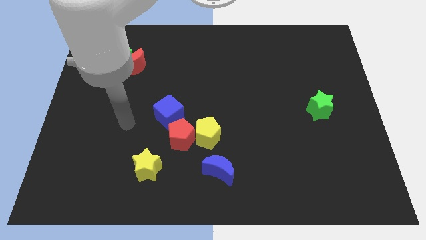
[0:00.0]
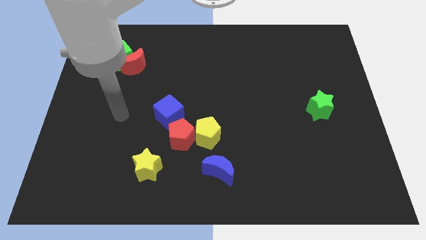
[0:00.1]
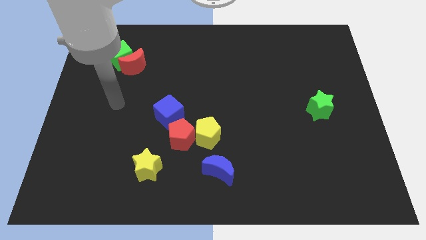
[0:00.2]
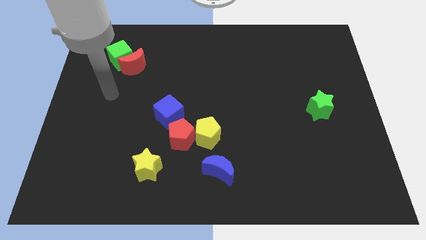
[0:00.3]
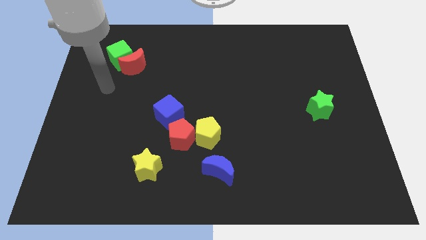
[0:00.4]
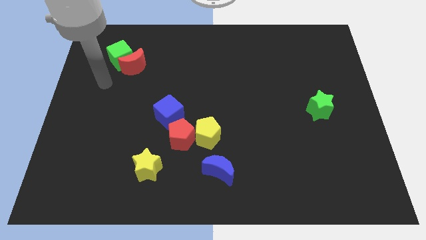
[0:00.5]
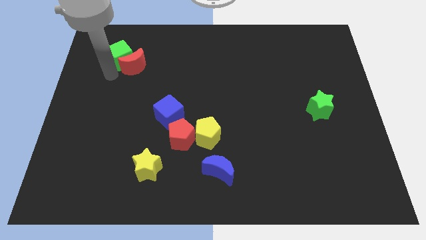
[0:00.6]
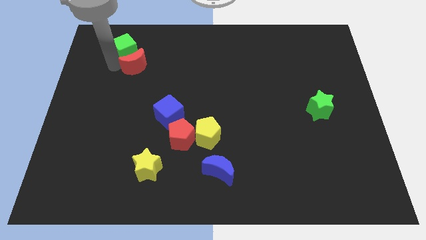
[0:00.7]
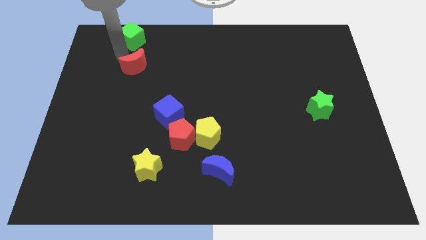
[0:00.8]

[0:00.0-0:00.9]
move the red moon away from the green cube

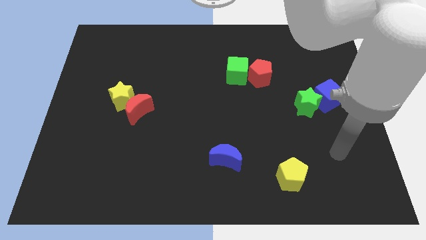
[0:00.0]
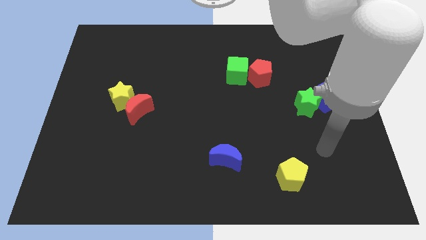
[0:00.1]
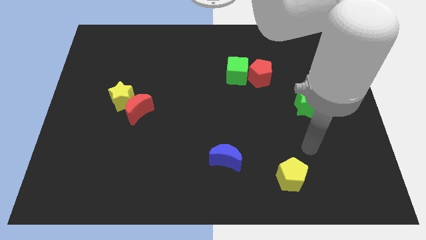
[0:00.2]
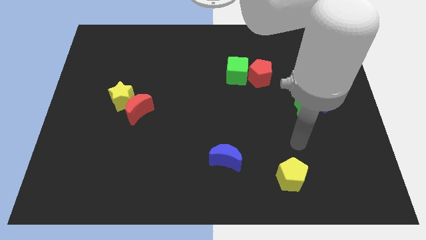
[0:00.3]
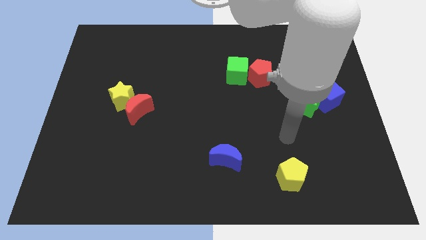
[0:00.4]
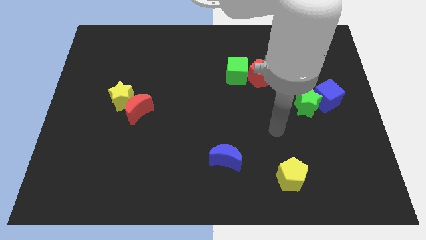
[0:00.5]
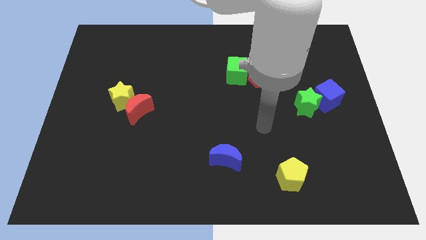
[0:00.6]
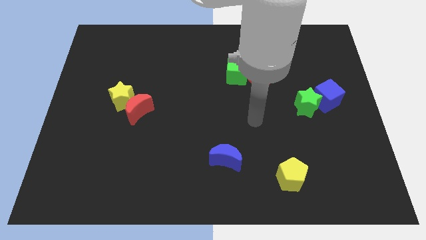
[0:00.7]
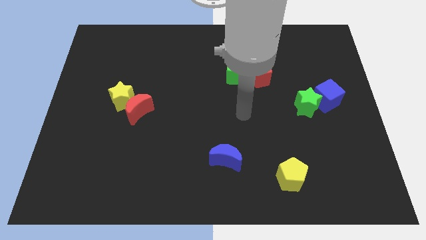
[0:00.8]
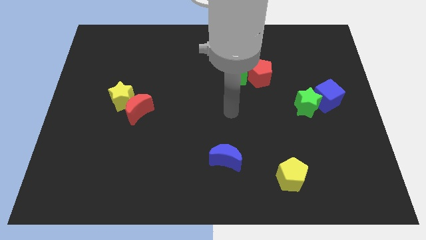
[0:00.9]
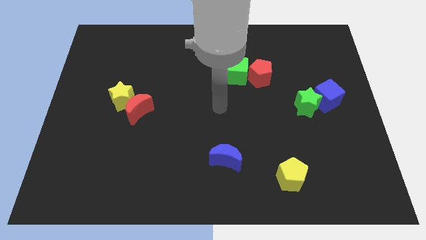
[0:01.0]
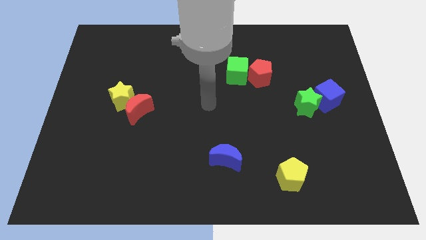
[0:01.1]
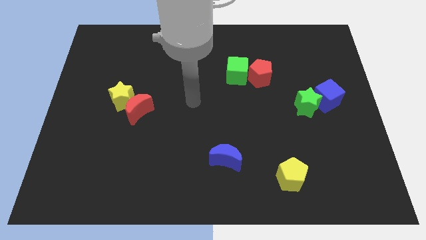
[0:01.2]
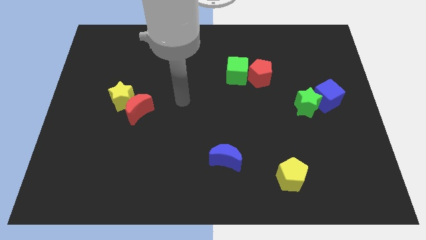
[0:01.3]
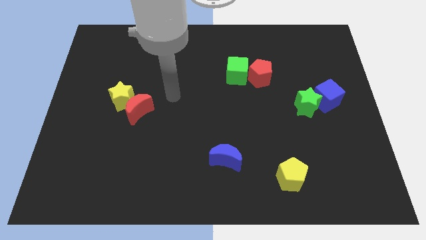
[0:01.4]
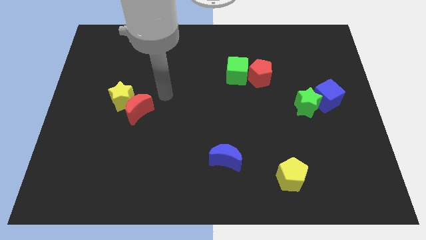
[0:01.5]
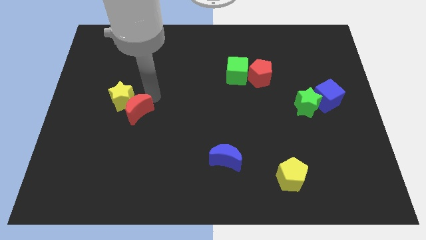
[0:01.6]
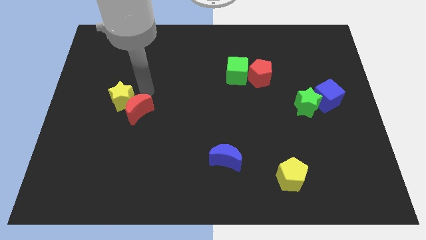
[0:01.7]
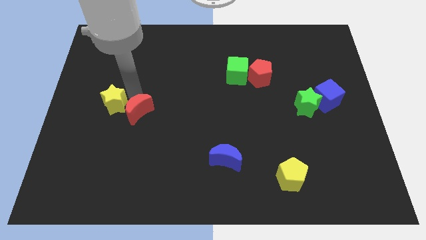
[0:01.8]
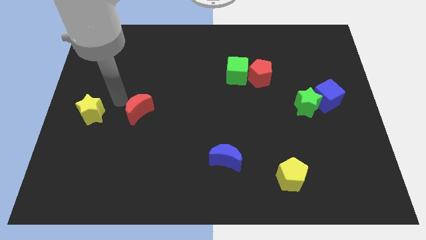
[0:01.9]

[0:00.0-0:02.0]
pull the red moon apart from the yellow star

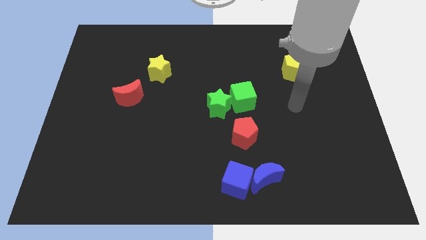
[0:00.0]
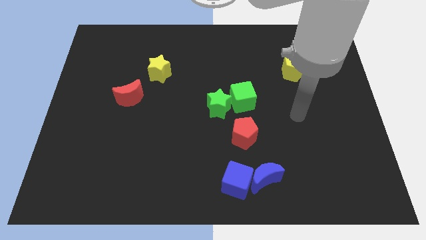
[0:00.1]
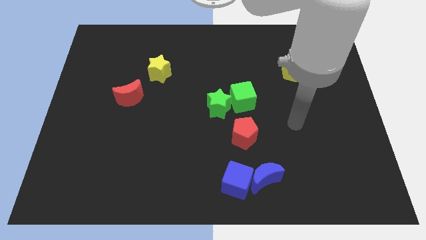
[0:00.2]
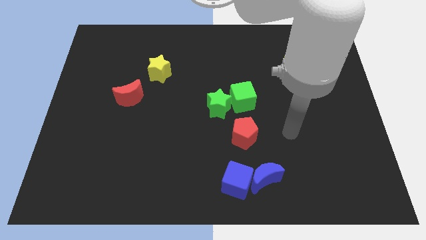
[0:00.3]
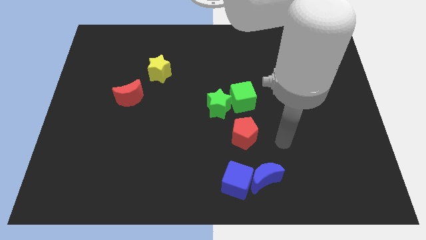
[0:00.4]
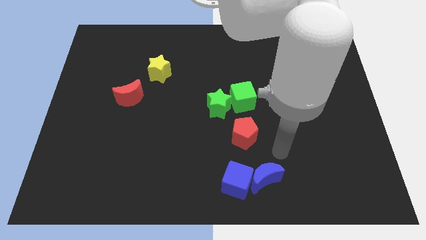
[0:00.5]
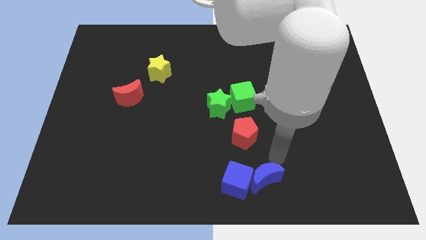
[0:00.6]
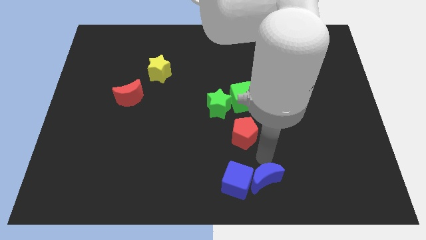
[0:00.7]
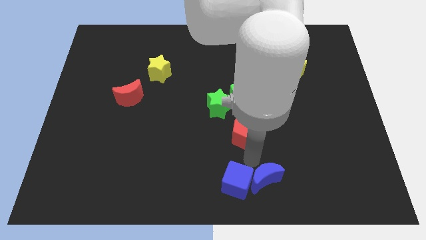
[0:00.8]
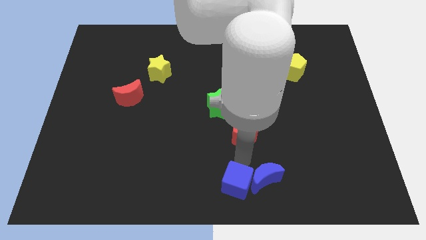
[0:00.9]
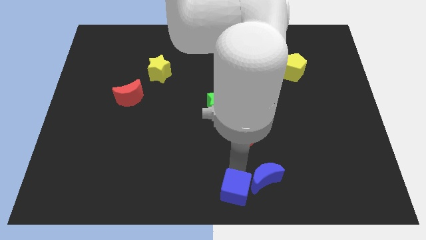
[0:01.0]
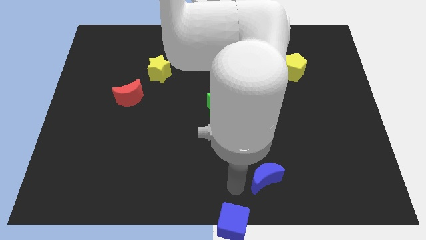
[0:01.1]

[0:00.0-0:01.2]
pull the blue moon apart from the blue cube

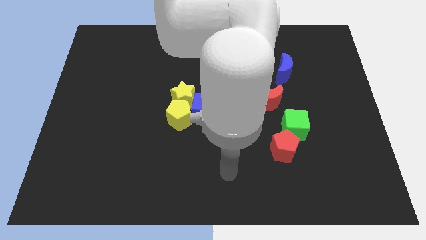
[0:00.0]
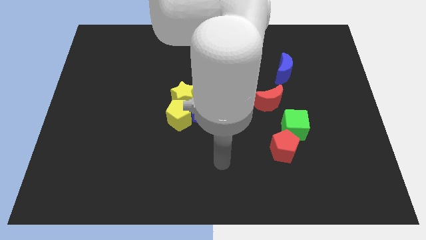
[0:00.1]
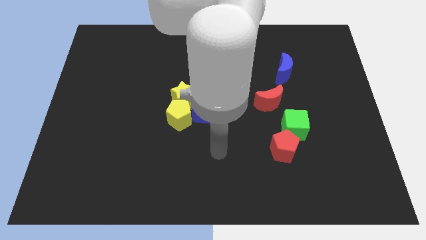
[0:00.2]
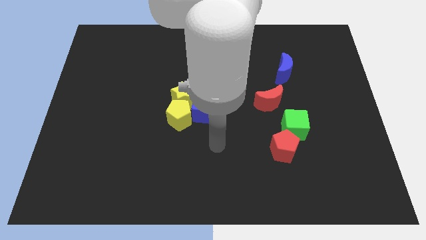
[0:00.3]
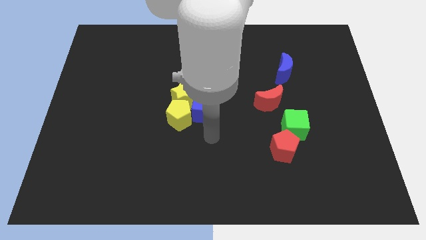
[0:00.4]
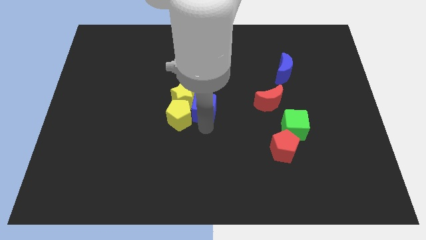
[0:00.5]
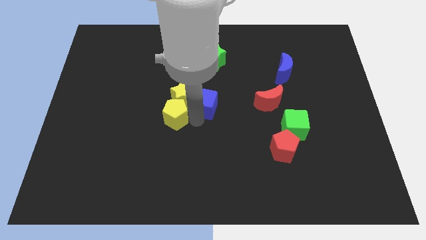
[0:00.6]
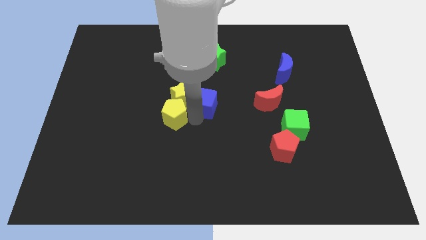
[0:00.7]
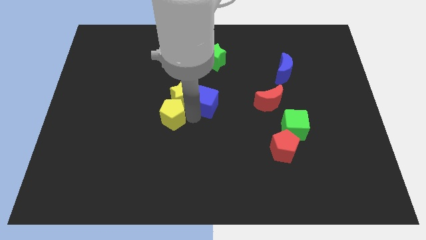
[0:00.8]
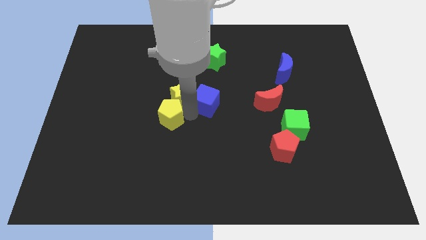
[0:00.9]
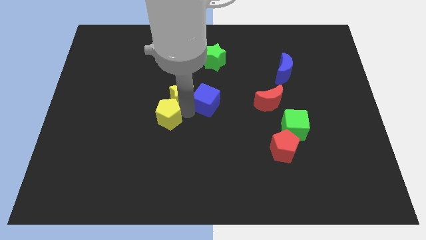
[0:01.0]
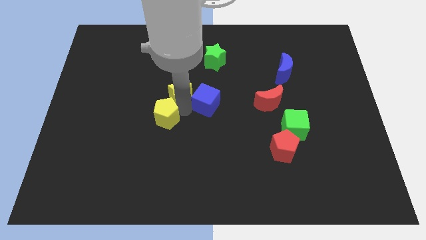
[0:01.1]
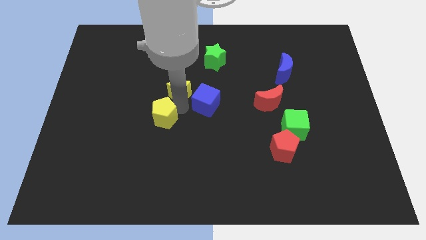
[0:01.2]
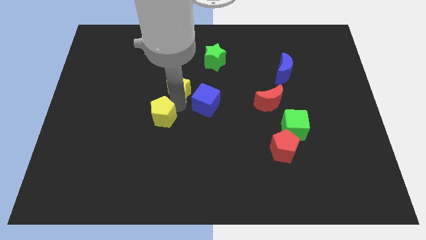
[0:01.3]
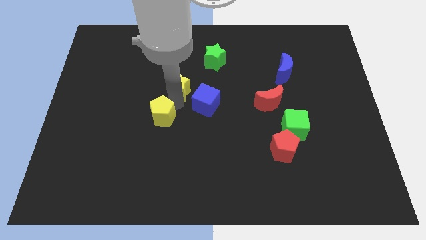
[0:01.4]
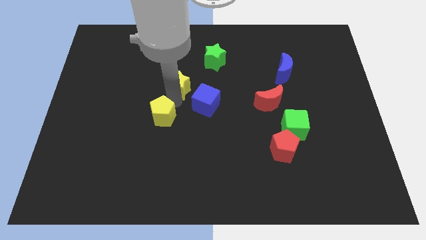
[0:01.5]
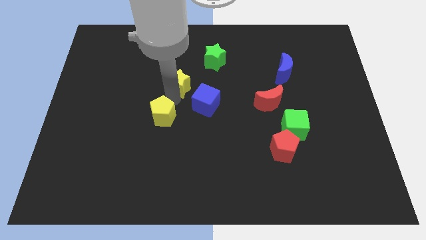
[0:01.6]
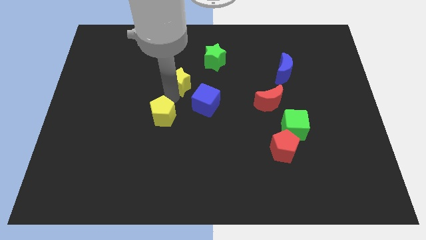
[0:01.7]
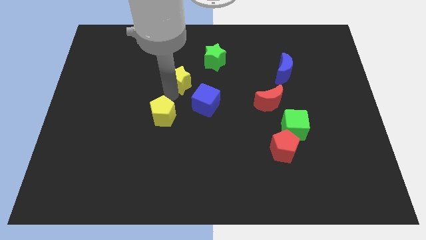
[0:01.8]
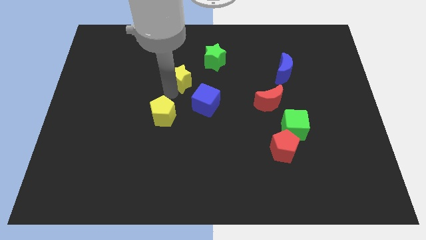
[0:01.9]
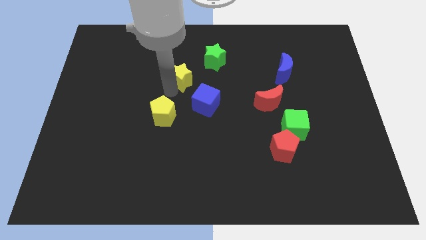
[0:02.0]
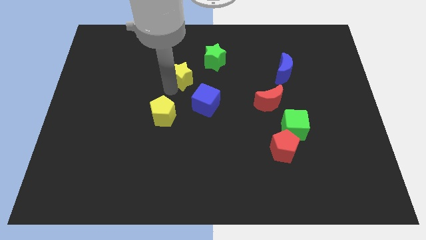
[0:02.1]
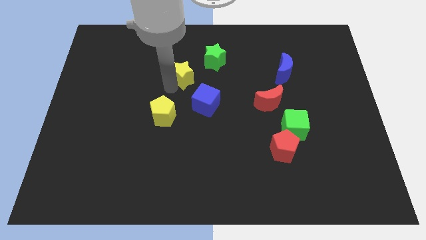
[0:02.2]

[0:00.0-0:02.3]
move the yellow star away from the yellow pentagon and blue cube

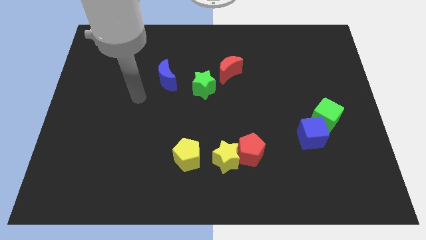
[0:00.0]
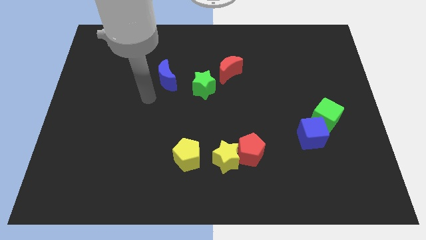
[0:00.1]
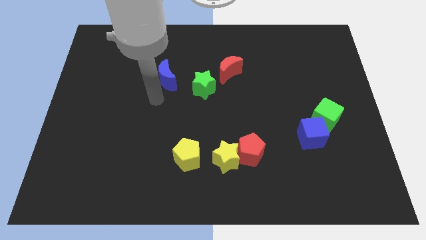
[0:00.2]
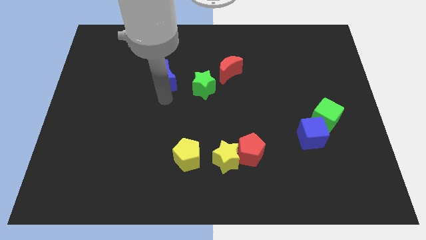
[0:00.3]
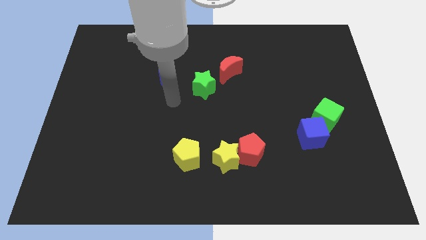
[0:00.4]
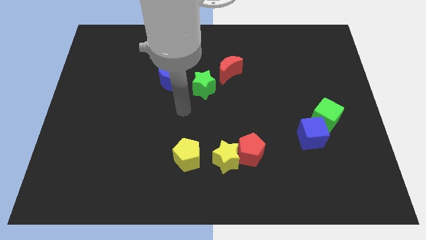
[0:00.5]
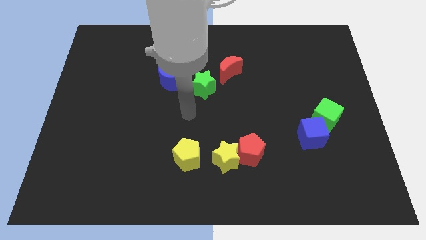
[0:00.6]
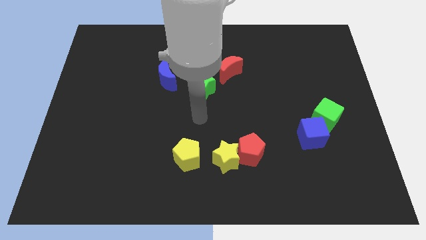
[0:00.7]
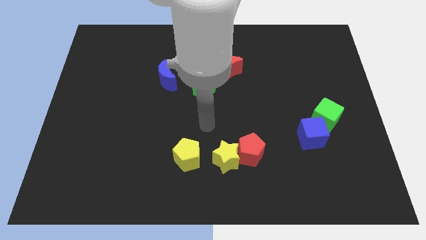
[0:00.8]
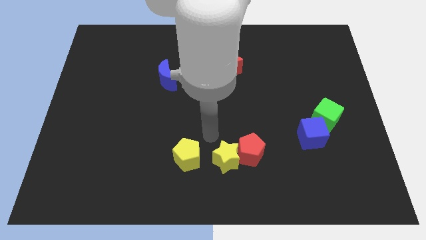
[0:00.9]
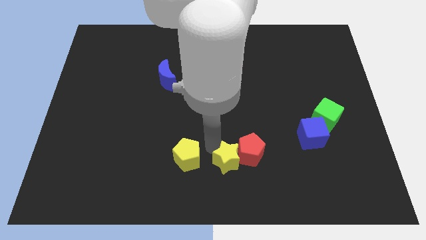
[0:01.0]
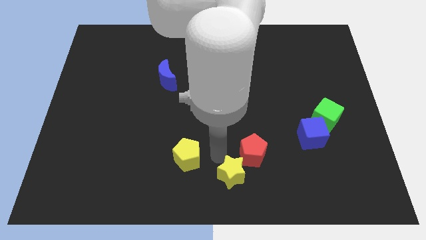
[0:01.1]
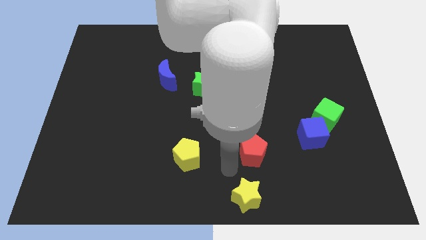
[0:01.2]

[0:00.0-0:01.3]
move the red pentagon away from the yellow star

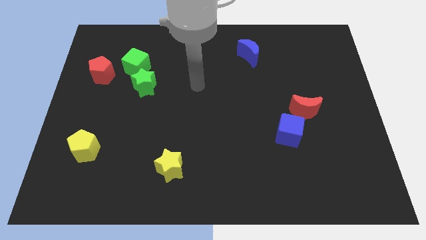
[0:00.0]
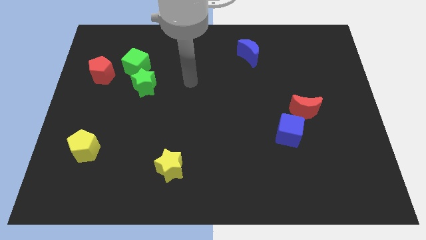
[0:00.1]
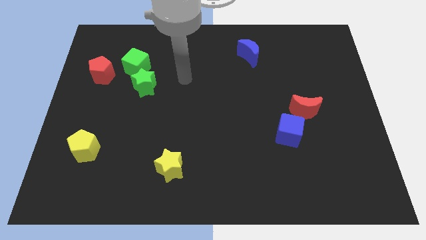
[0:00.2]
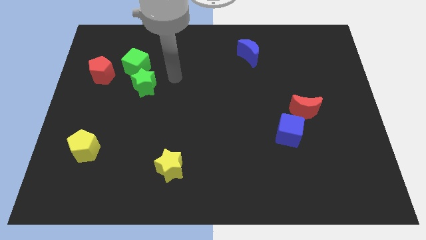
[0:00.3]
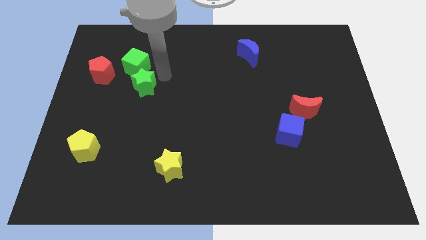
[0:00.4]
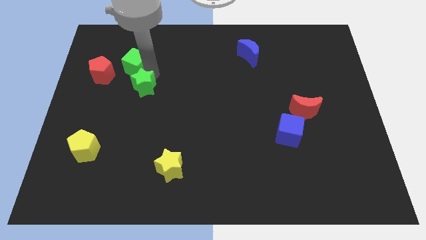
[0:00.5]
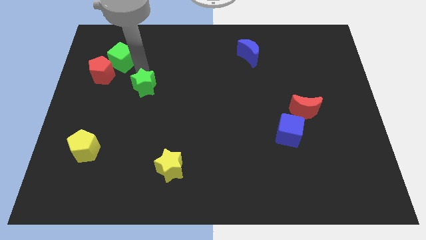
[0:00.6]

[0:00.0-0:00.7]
pull the green star apart from the green cube

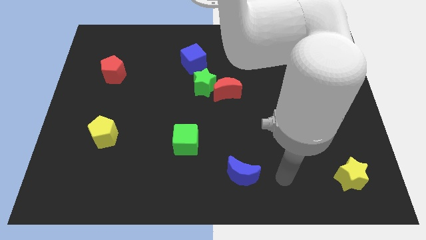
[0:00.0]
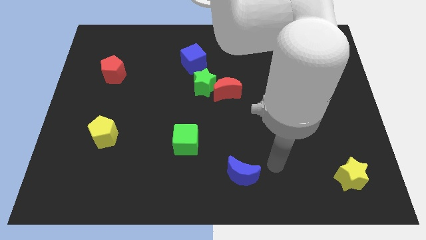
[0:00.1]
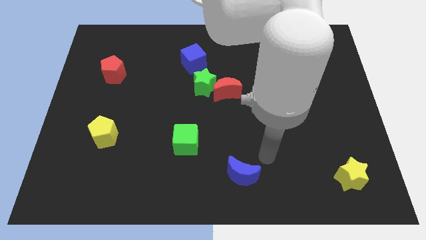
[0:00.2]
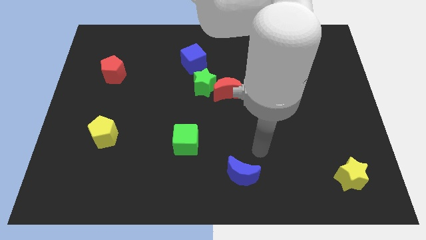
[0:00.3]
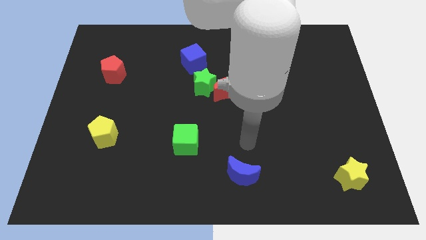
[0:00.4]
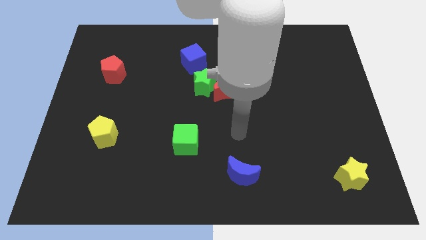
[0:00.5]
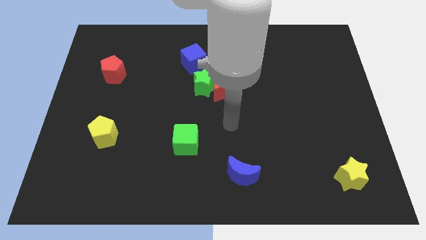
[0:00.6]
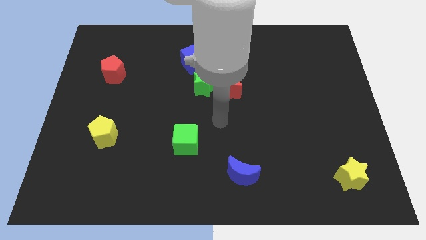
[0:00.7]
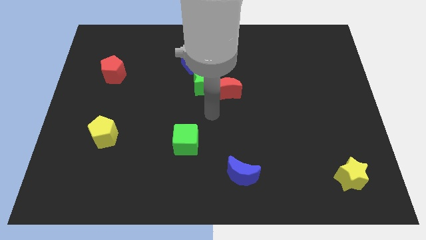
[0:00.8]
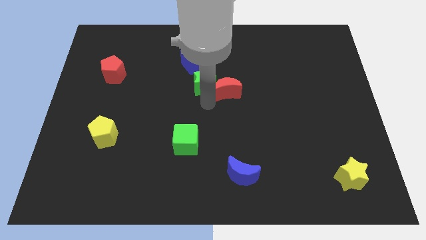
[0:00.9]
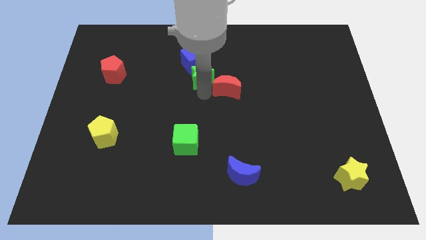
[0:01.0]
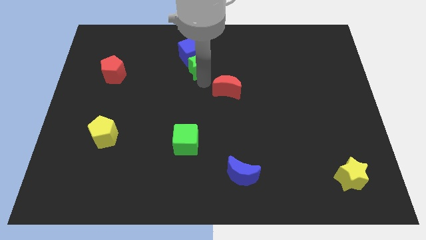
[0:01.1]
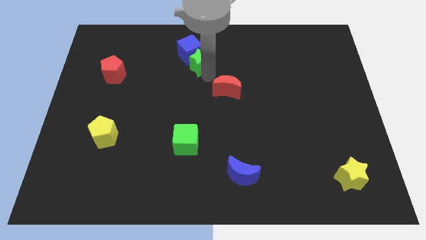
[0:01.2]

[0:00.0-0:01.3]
move the red moon away from the green star
